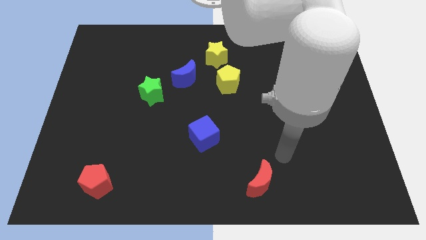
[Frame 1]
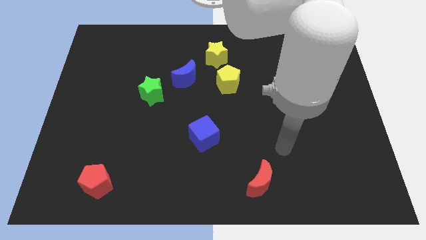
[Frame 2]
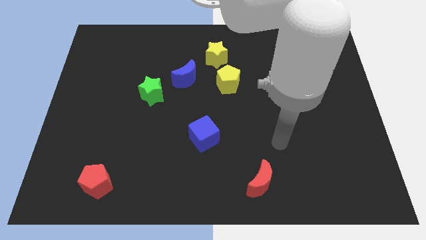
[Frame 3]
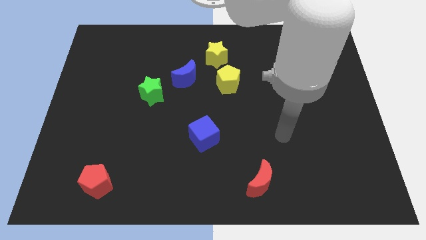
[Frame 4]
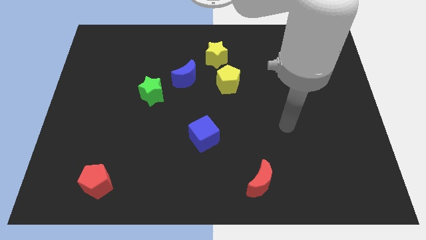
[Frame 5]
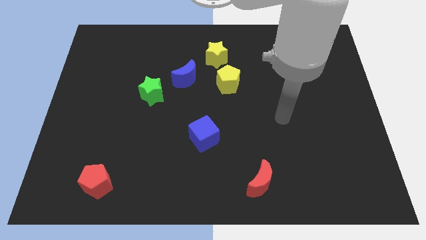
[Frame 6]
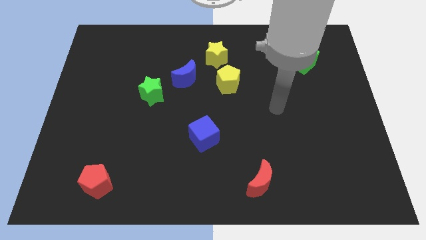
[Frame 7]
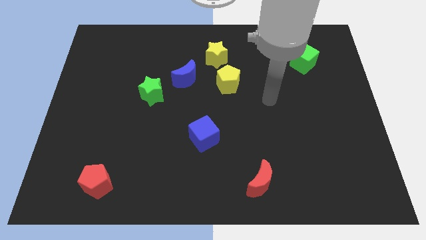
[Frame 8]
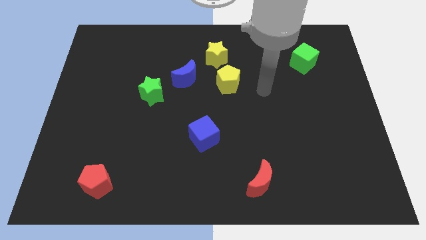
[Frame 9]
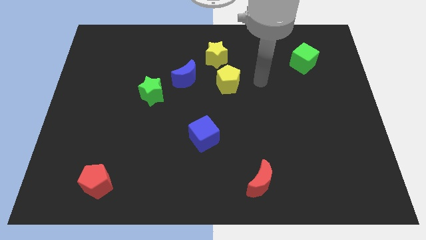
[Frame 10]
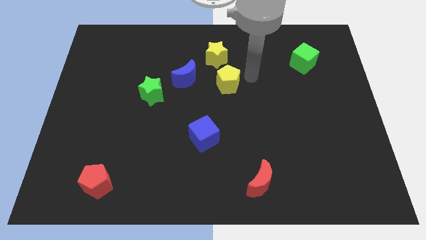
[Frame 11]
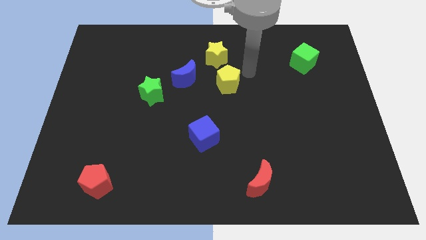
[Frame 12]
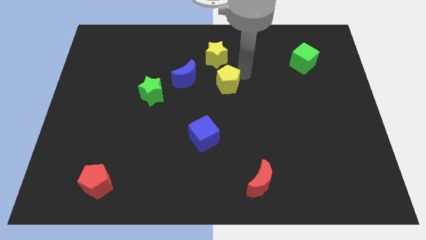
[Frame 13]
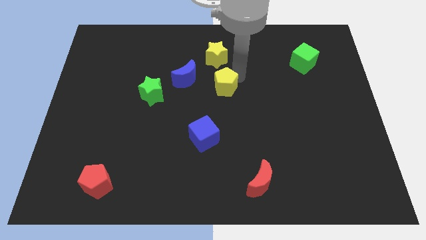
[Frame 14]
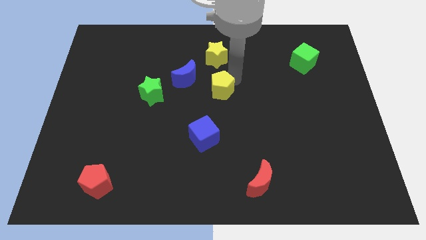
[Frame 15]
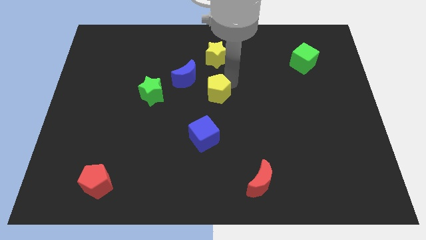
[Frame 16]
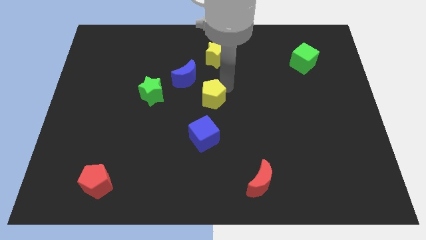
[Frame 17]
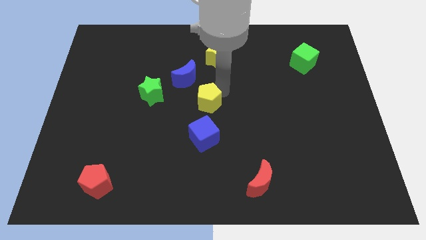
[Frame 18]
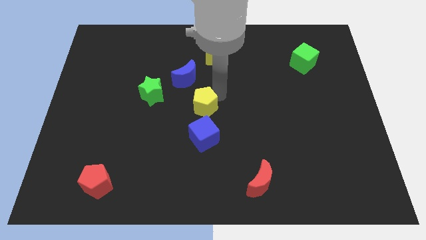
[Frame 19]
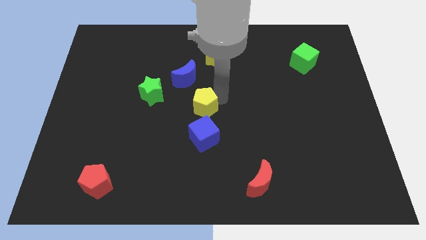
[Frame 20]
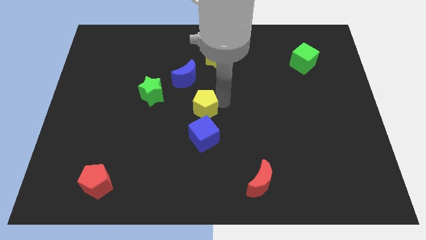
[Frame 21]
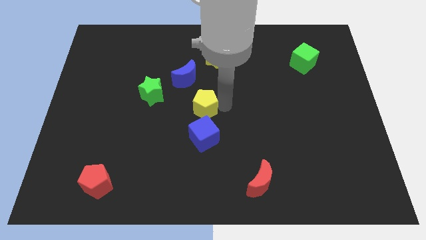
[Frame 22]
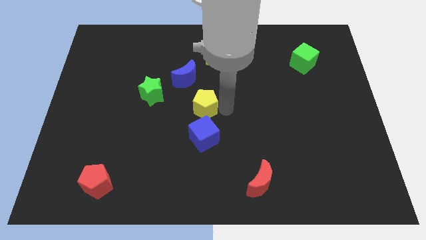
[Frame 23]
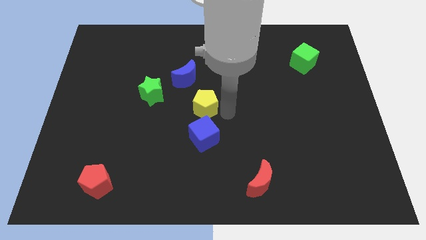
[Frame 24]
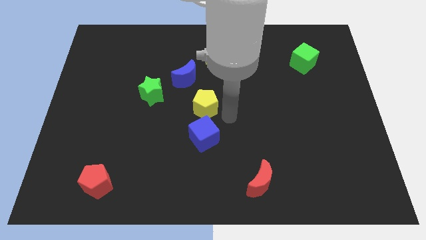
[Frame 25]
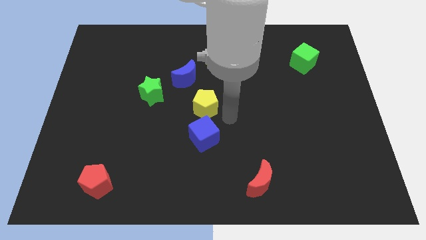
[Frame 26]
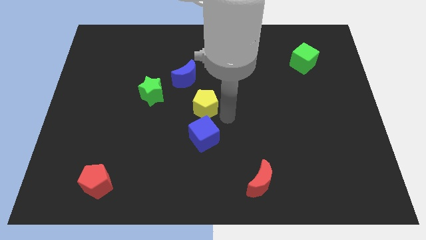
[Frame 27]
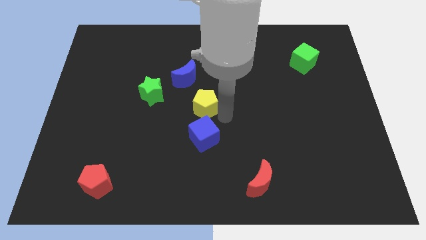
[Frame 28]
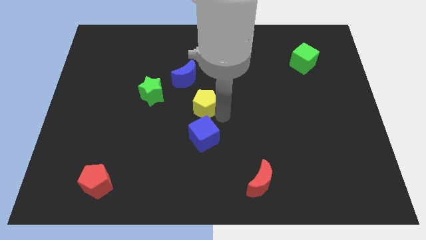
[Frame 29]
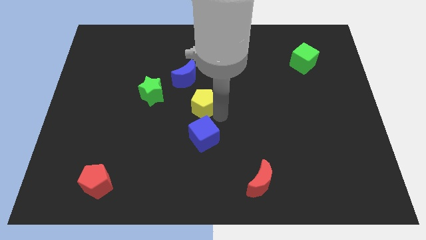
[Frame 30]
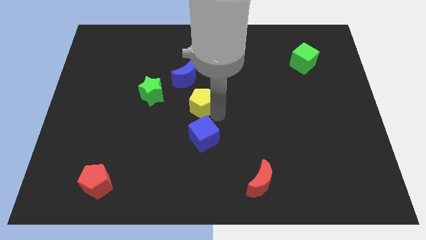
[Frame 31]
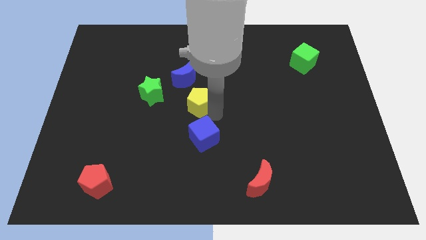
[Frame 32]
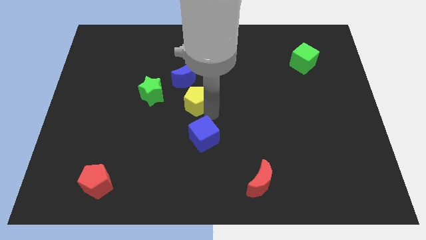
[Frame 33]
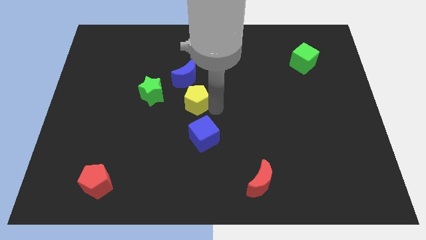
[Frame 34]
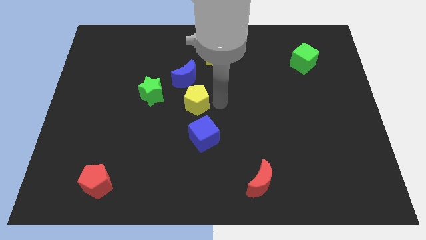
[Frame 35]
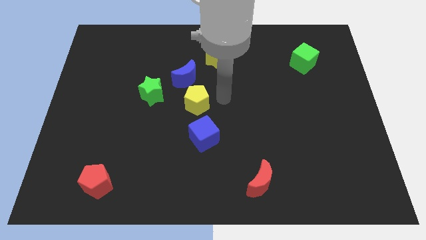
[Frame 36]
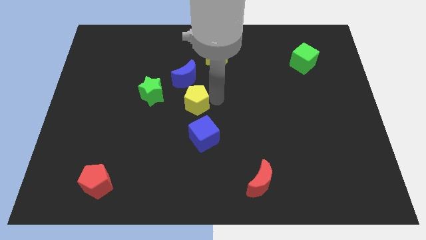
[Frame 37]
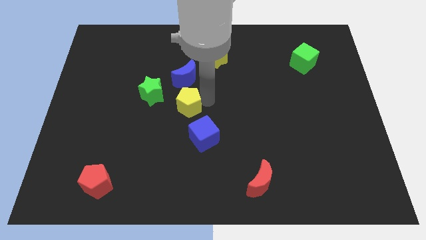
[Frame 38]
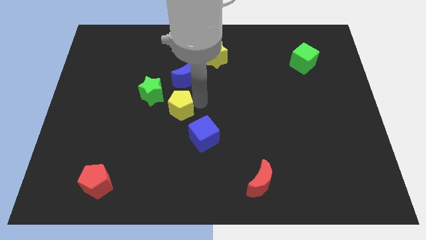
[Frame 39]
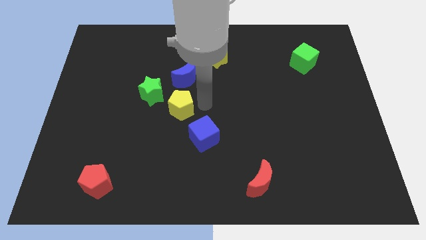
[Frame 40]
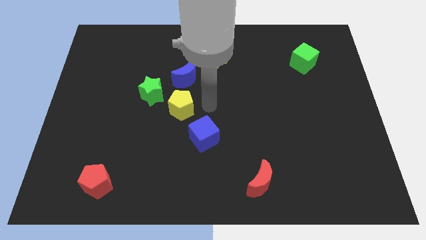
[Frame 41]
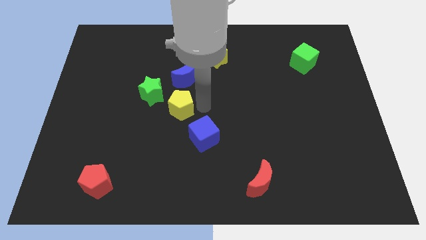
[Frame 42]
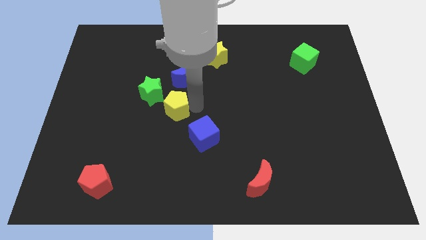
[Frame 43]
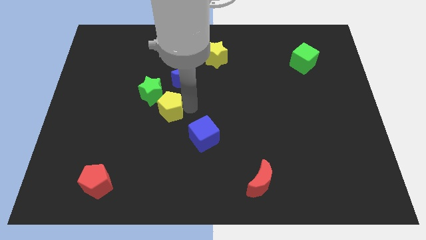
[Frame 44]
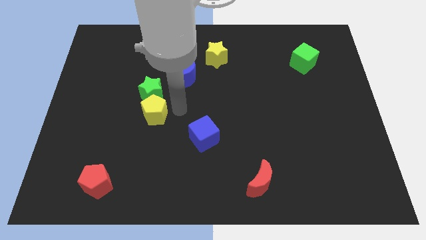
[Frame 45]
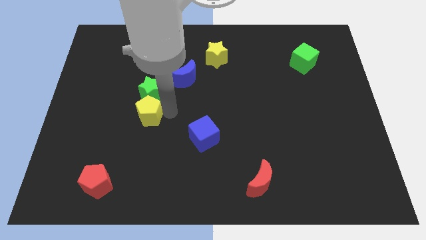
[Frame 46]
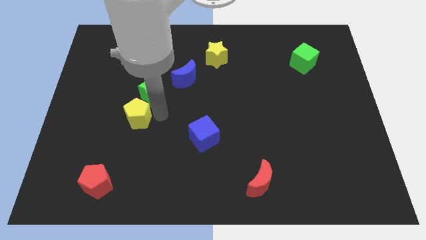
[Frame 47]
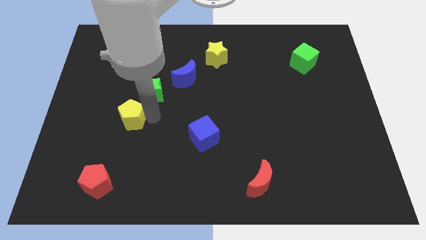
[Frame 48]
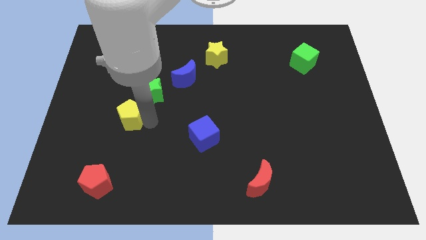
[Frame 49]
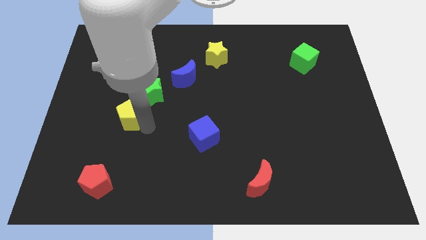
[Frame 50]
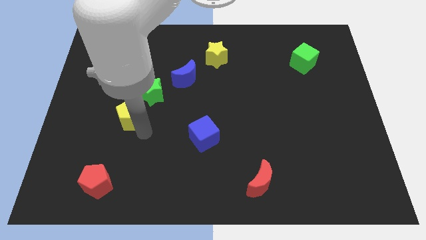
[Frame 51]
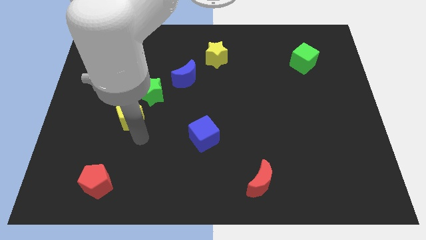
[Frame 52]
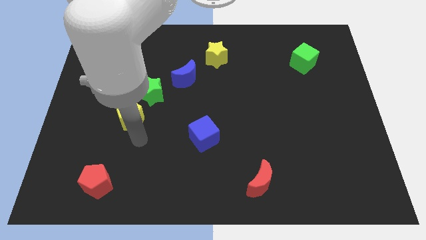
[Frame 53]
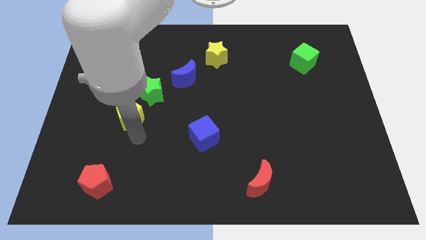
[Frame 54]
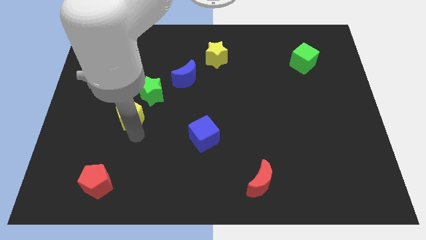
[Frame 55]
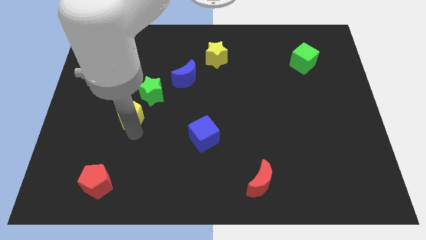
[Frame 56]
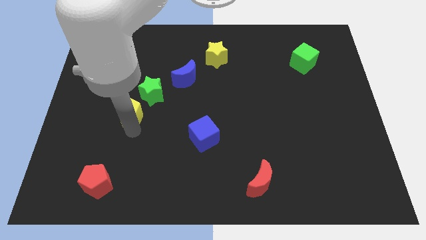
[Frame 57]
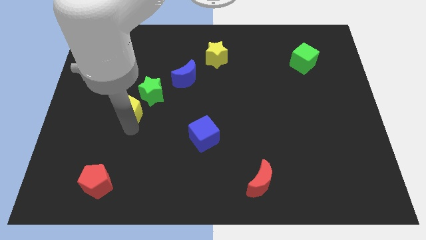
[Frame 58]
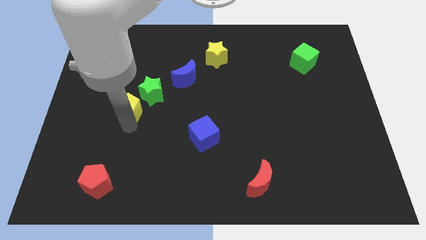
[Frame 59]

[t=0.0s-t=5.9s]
push the yellow pentagon to the left

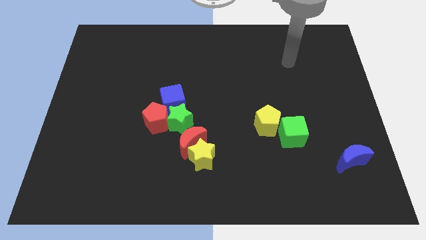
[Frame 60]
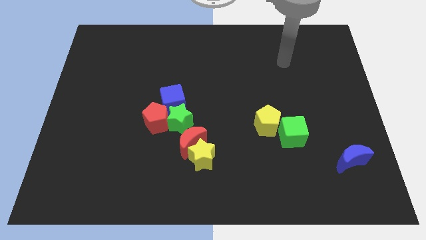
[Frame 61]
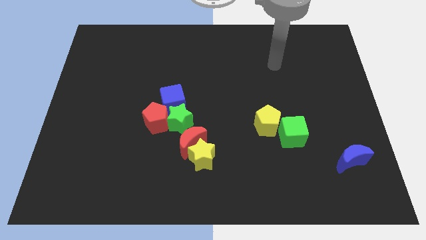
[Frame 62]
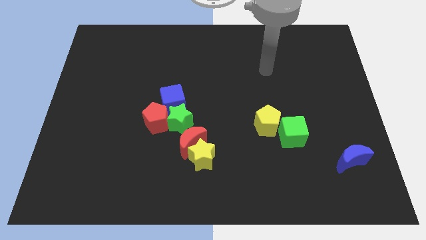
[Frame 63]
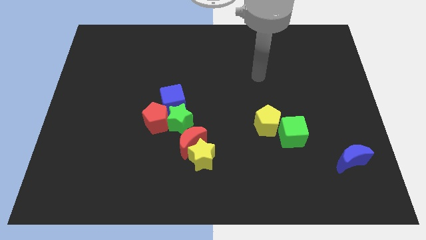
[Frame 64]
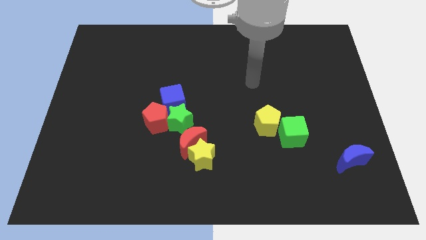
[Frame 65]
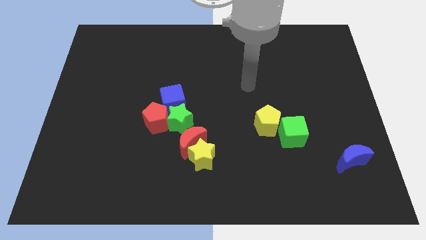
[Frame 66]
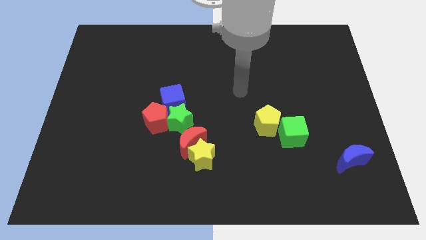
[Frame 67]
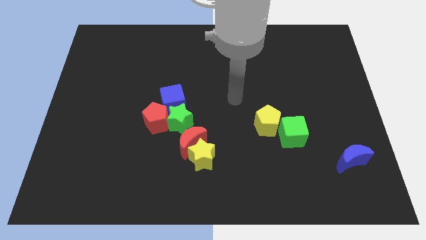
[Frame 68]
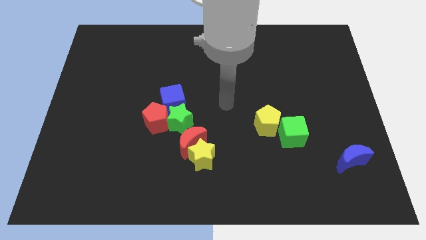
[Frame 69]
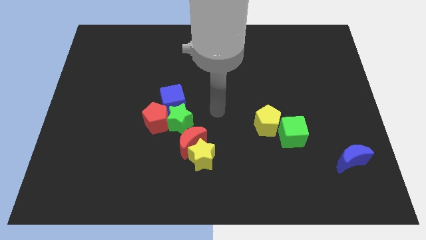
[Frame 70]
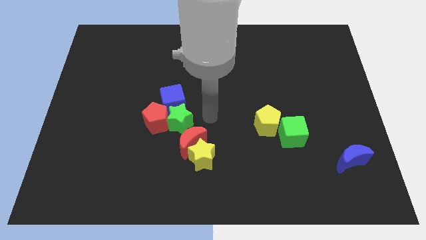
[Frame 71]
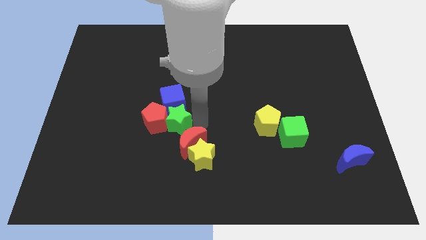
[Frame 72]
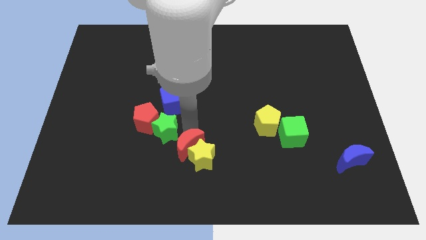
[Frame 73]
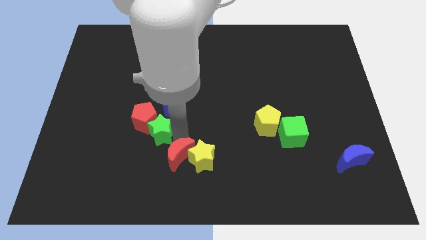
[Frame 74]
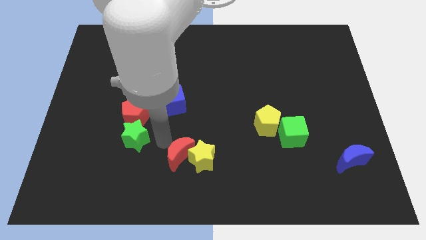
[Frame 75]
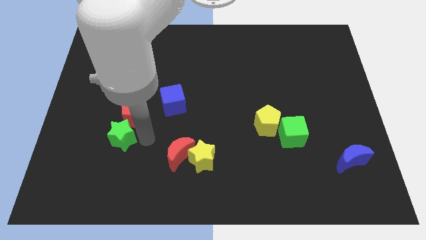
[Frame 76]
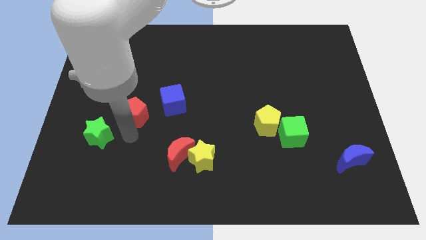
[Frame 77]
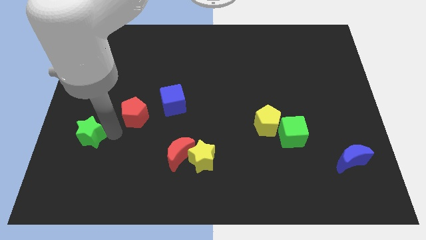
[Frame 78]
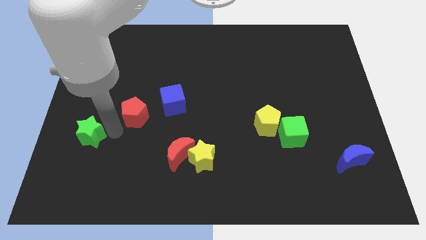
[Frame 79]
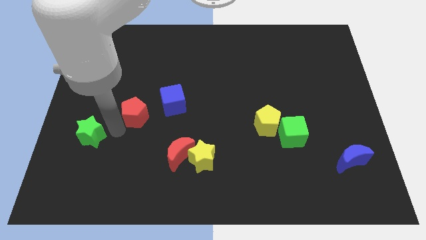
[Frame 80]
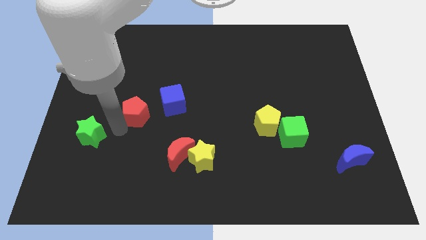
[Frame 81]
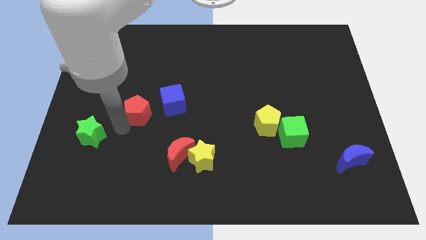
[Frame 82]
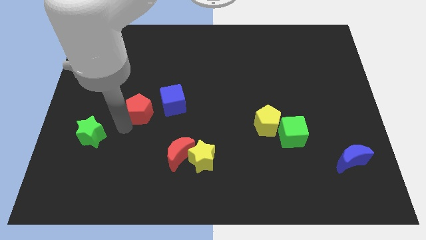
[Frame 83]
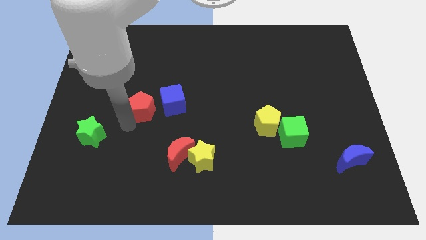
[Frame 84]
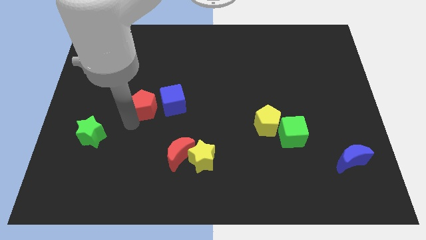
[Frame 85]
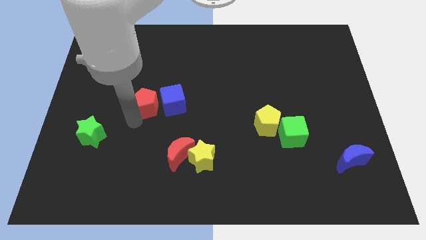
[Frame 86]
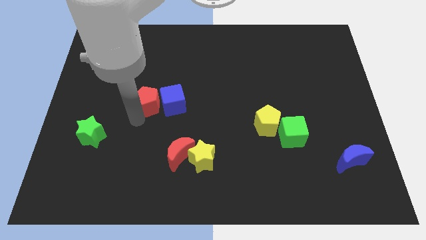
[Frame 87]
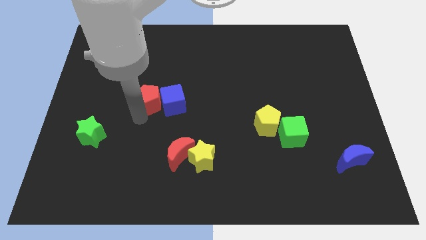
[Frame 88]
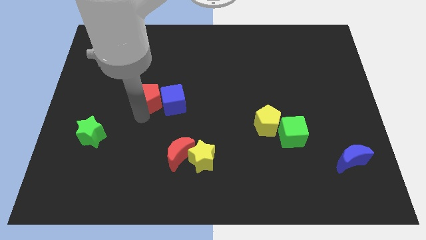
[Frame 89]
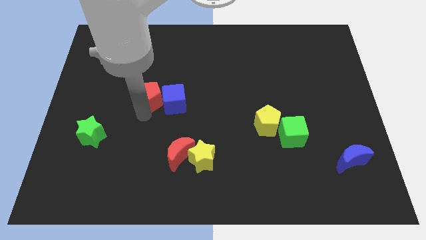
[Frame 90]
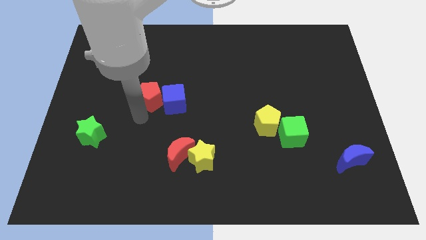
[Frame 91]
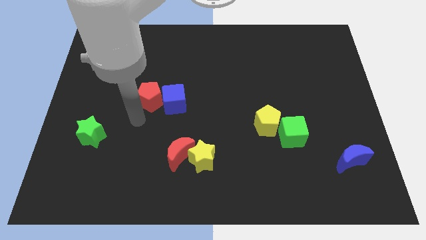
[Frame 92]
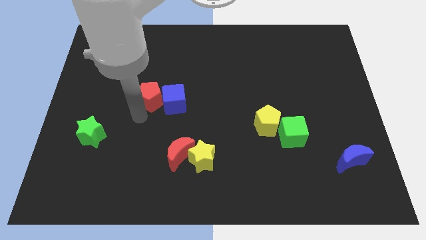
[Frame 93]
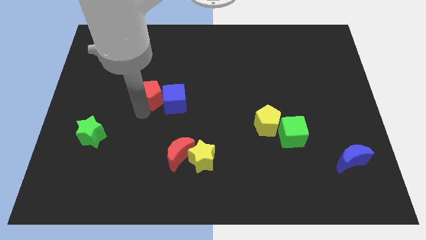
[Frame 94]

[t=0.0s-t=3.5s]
push the red pentagon up somewhat
